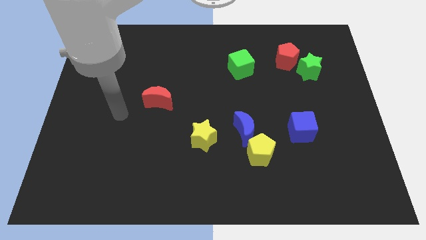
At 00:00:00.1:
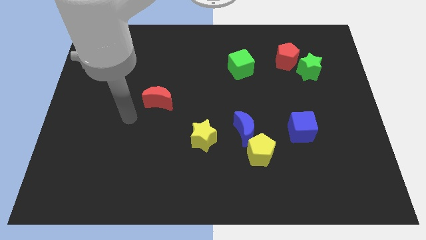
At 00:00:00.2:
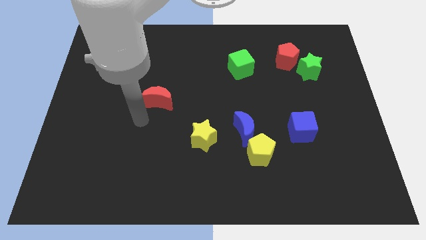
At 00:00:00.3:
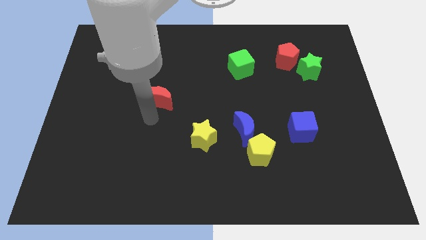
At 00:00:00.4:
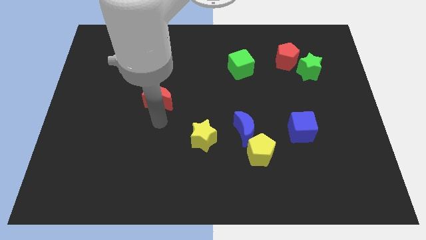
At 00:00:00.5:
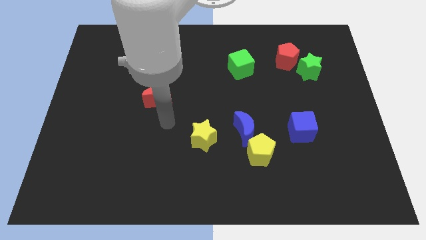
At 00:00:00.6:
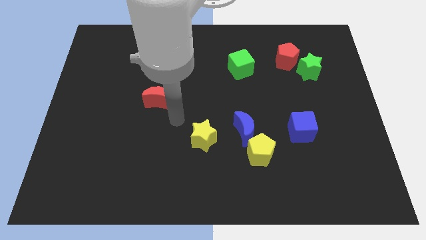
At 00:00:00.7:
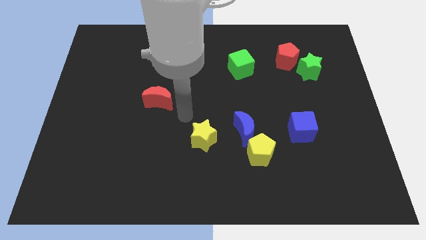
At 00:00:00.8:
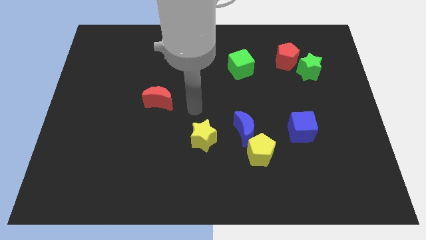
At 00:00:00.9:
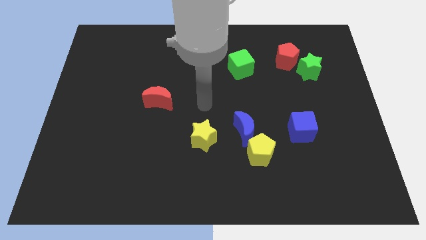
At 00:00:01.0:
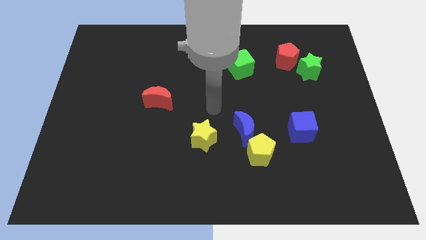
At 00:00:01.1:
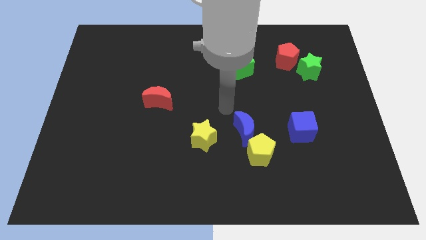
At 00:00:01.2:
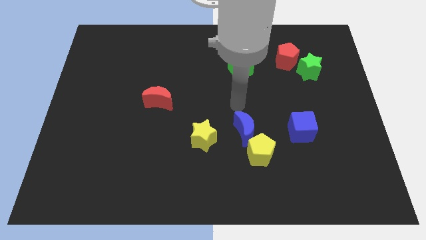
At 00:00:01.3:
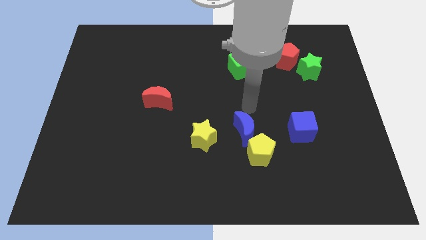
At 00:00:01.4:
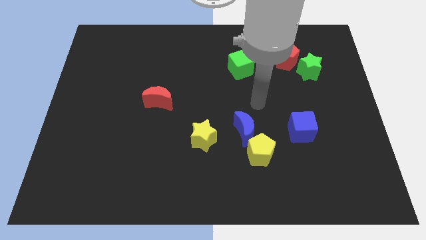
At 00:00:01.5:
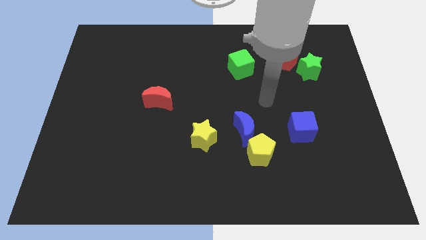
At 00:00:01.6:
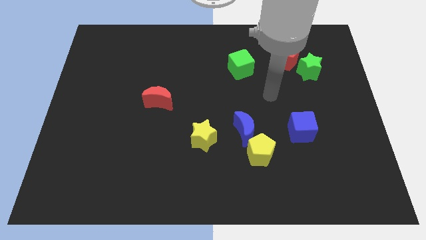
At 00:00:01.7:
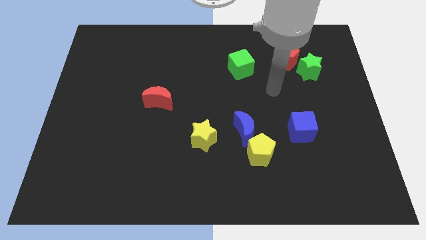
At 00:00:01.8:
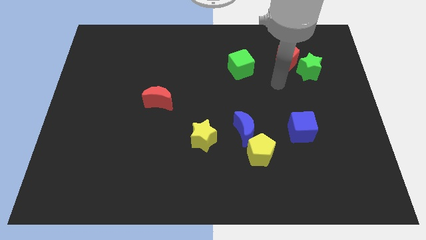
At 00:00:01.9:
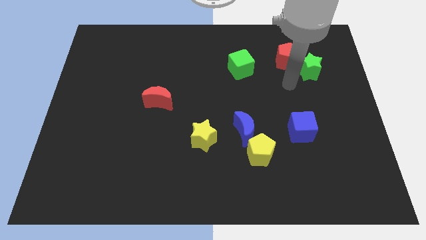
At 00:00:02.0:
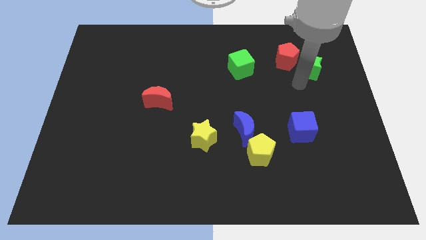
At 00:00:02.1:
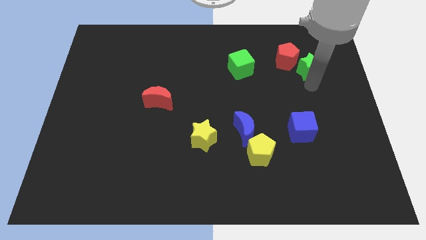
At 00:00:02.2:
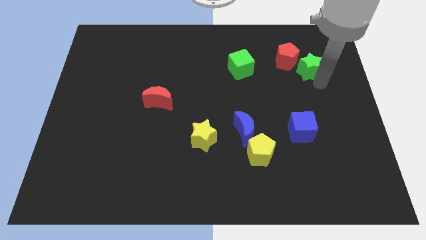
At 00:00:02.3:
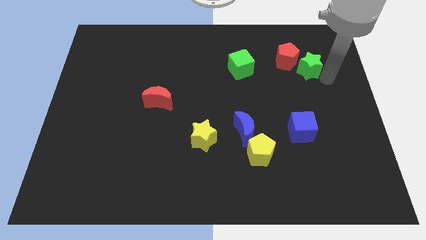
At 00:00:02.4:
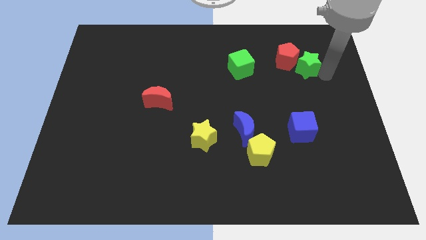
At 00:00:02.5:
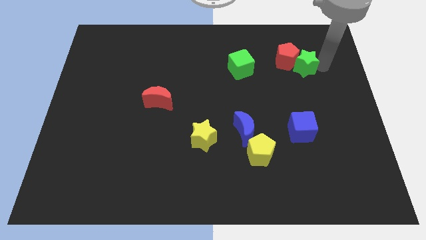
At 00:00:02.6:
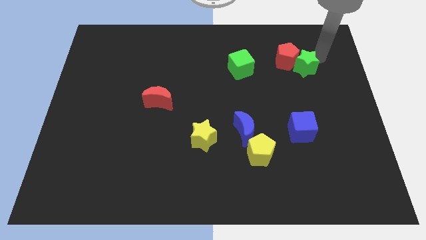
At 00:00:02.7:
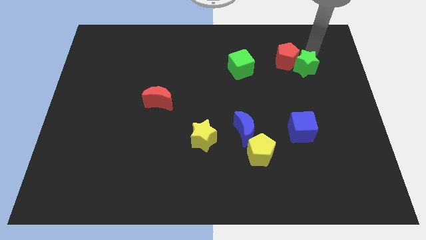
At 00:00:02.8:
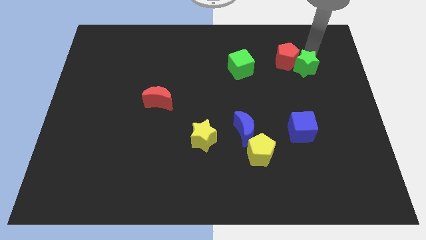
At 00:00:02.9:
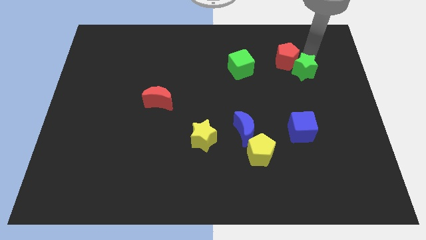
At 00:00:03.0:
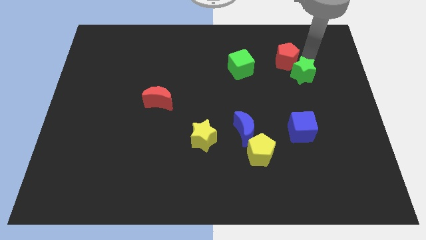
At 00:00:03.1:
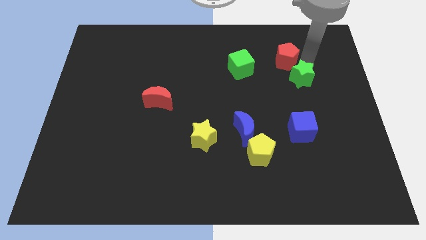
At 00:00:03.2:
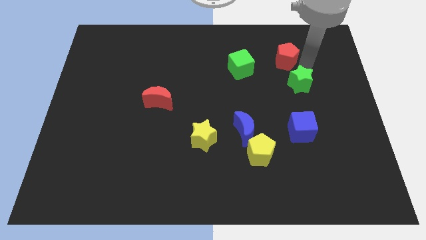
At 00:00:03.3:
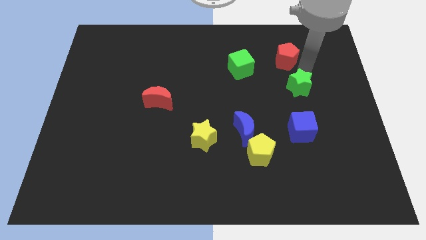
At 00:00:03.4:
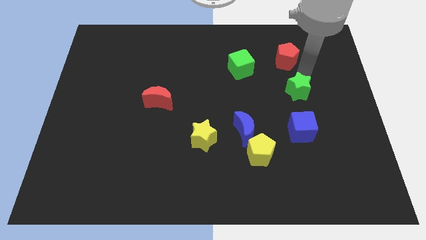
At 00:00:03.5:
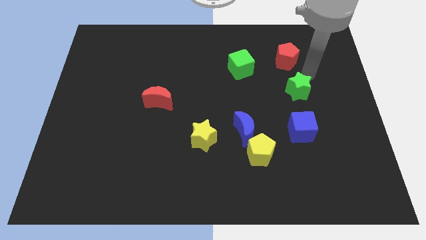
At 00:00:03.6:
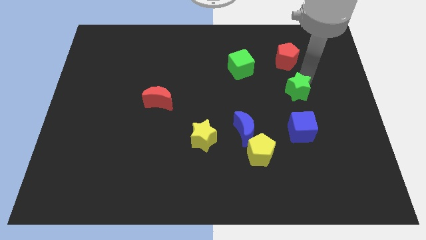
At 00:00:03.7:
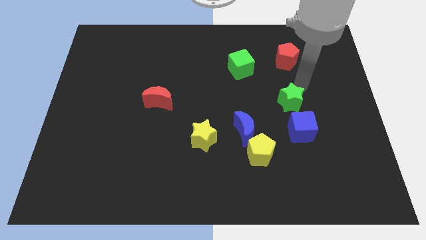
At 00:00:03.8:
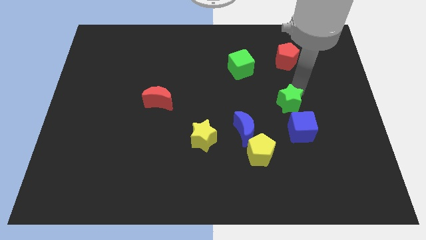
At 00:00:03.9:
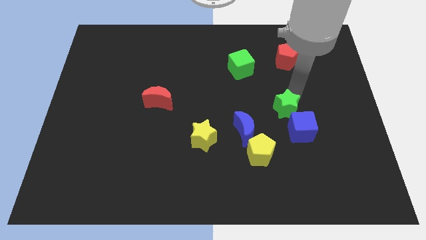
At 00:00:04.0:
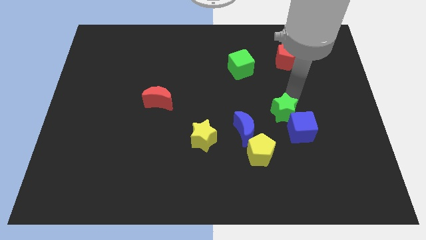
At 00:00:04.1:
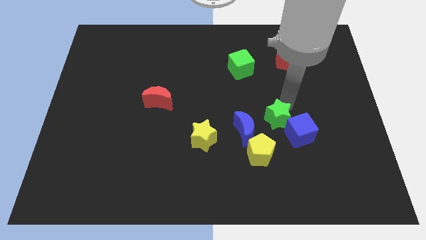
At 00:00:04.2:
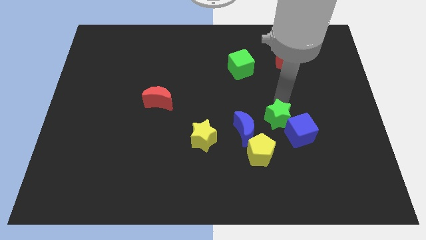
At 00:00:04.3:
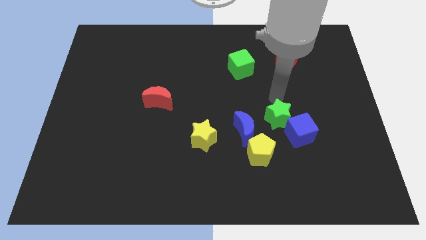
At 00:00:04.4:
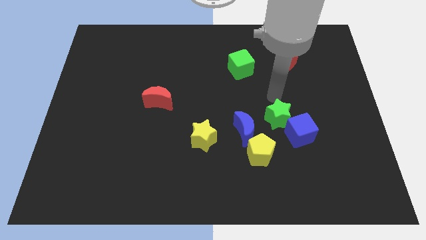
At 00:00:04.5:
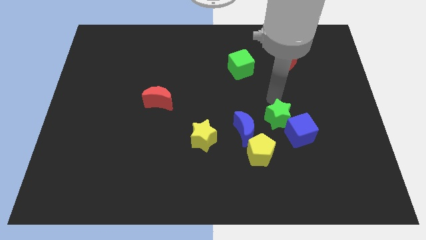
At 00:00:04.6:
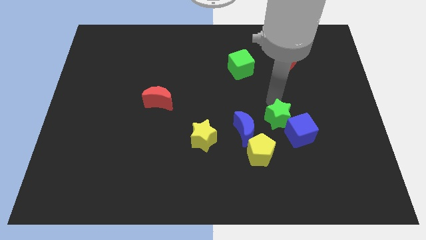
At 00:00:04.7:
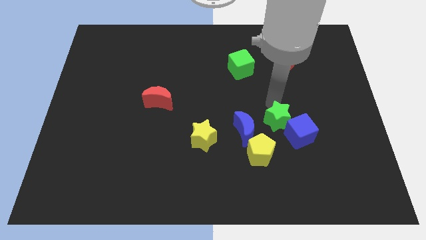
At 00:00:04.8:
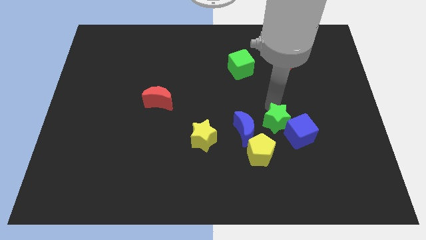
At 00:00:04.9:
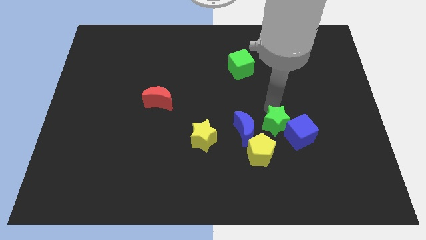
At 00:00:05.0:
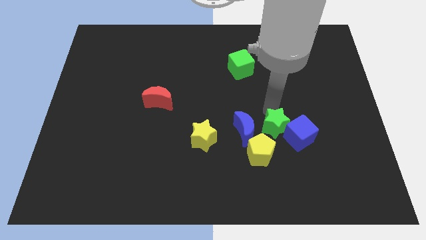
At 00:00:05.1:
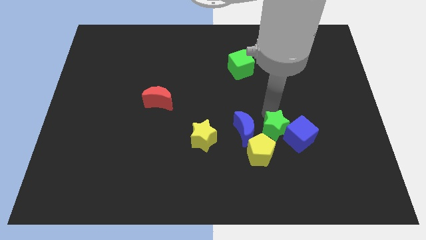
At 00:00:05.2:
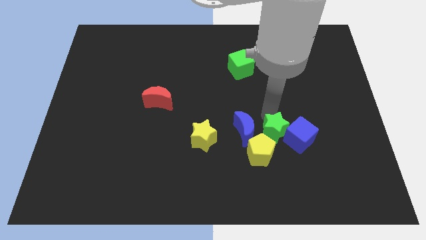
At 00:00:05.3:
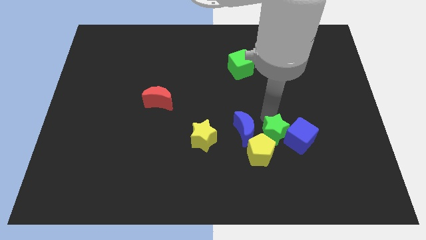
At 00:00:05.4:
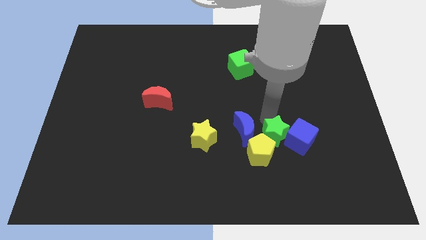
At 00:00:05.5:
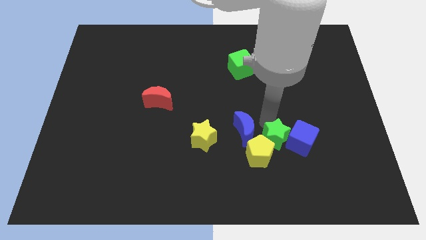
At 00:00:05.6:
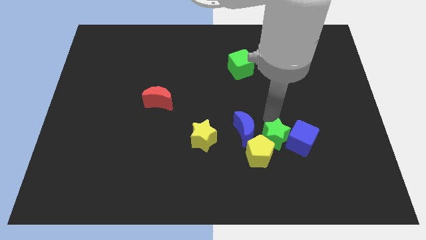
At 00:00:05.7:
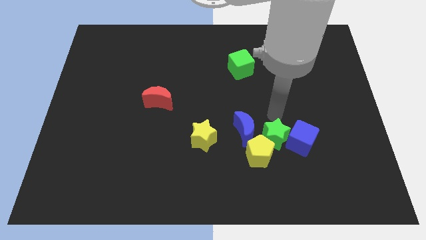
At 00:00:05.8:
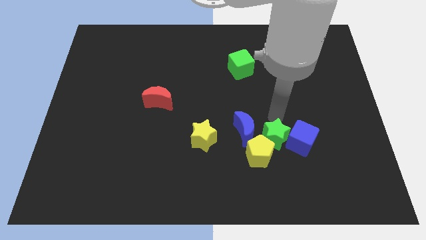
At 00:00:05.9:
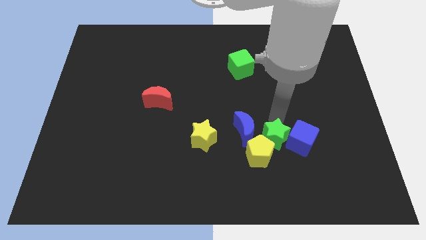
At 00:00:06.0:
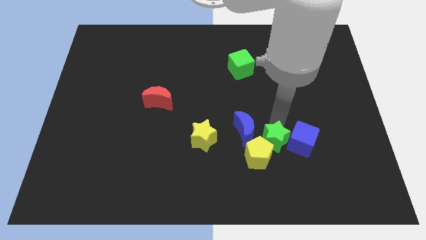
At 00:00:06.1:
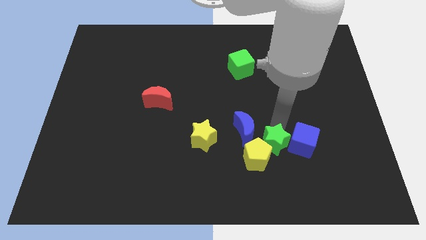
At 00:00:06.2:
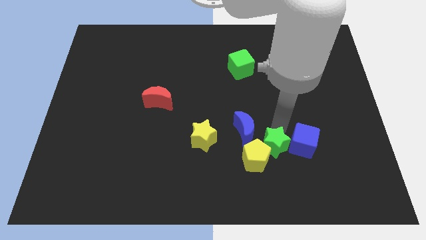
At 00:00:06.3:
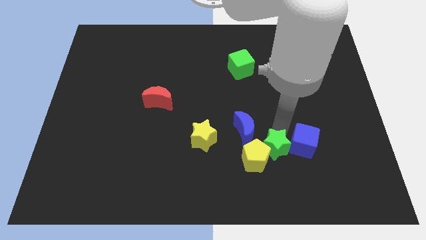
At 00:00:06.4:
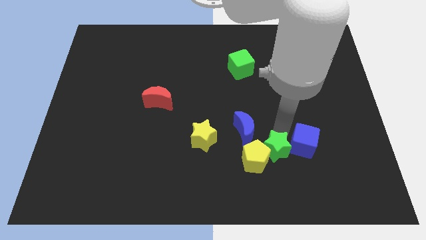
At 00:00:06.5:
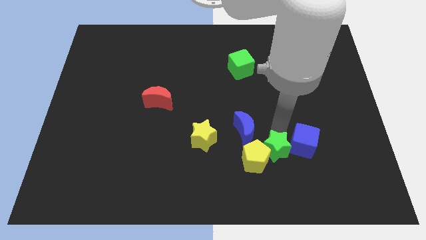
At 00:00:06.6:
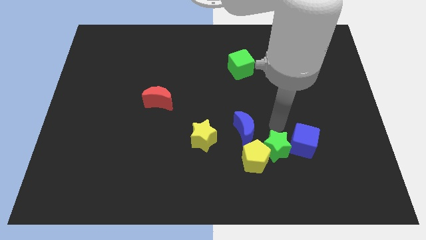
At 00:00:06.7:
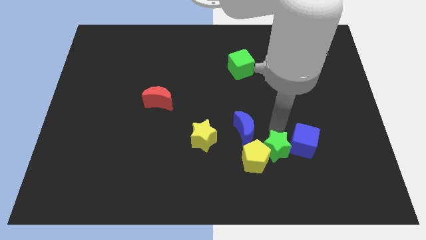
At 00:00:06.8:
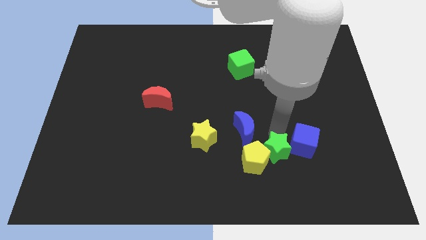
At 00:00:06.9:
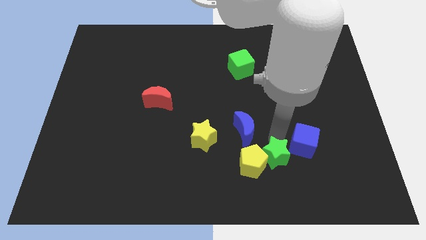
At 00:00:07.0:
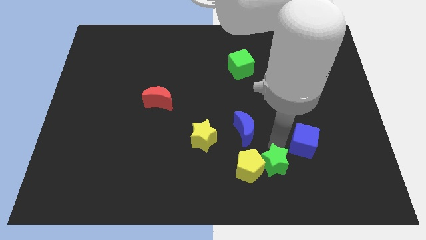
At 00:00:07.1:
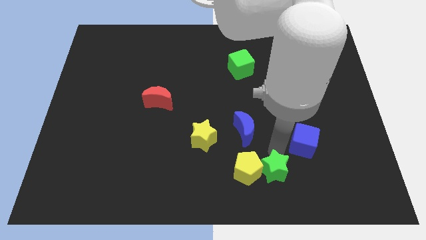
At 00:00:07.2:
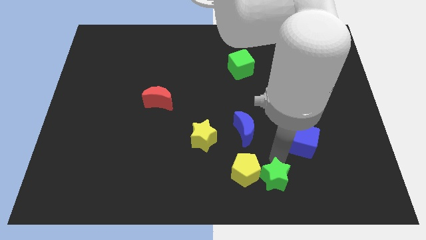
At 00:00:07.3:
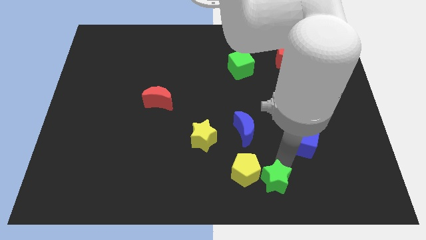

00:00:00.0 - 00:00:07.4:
slide the green star to the bottom side
